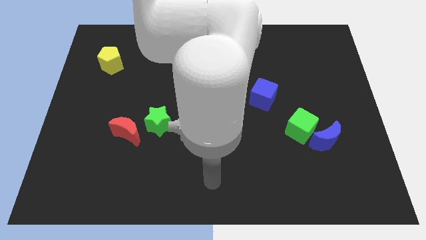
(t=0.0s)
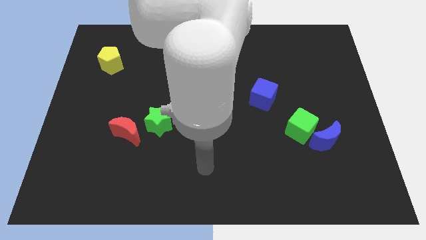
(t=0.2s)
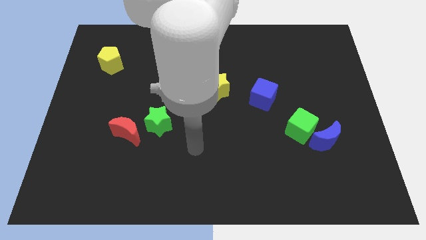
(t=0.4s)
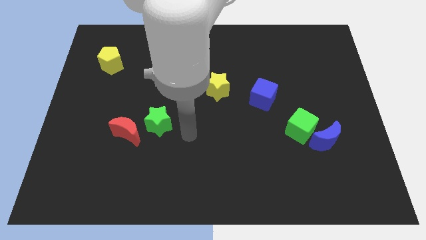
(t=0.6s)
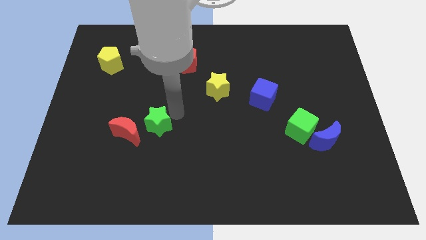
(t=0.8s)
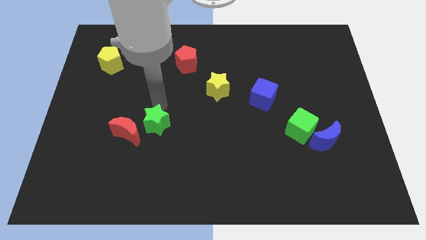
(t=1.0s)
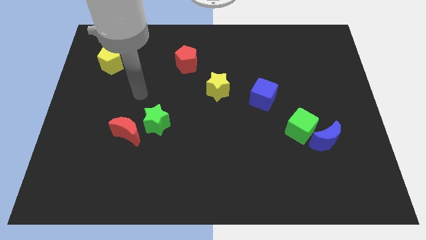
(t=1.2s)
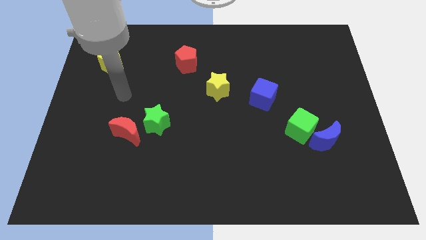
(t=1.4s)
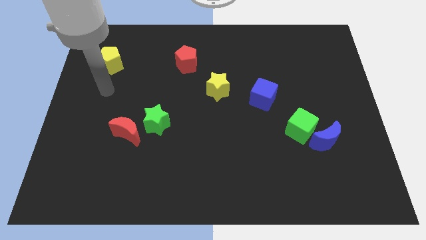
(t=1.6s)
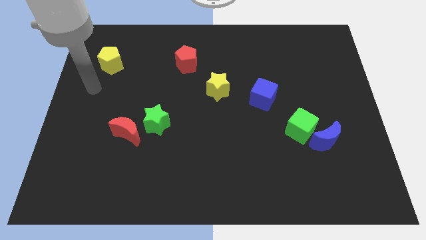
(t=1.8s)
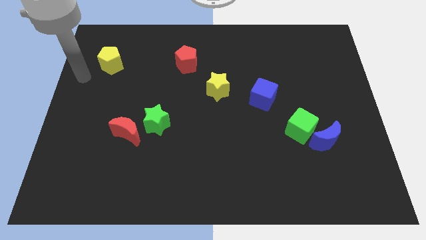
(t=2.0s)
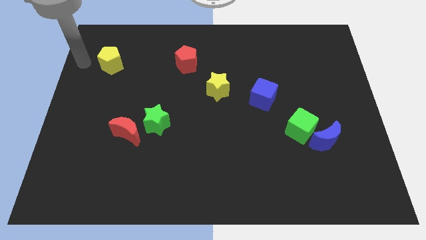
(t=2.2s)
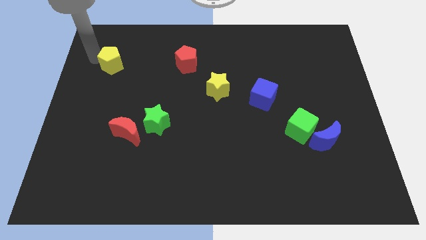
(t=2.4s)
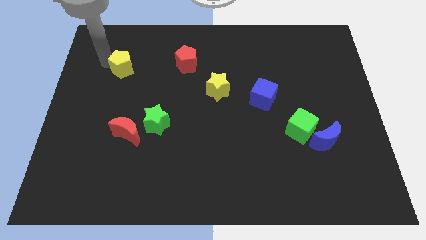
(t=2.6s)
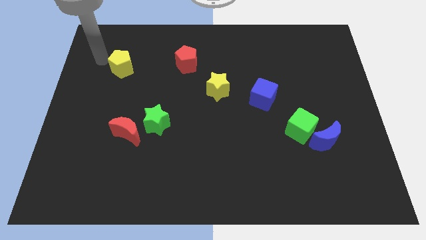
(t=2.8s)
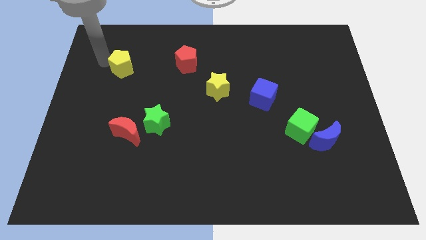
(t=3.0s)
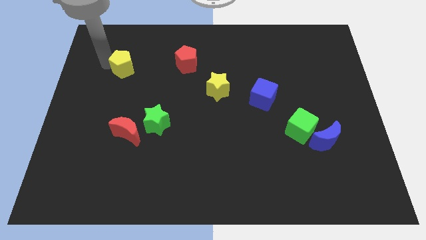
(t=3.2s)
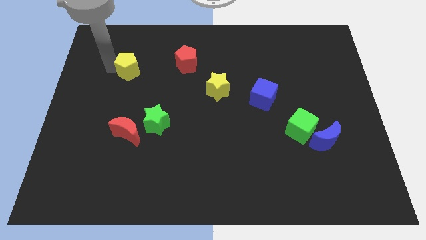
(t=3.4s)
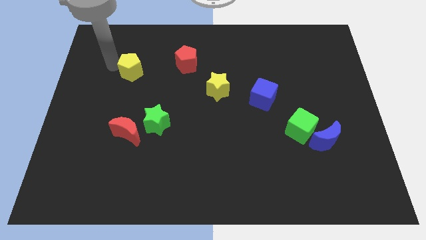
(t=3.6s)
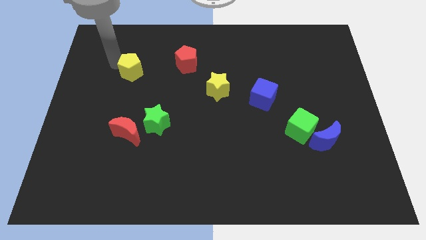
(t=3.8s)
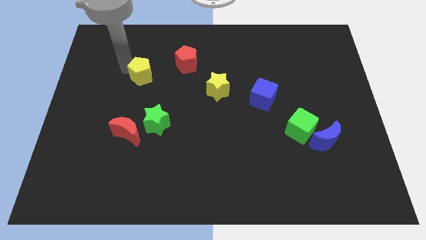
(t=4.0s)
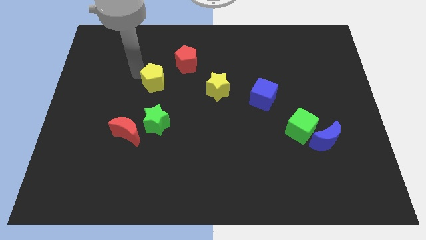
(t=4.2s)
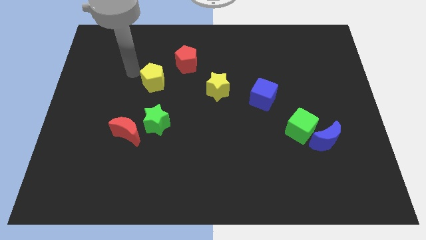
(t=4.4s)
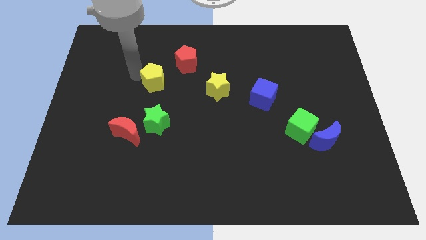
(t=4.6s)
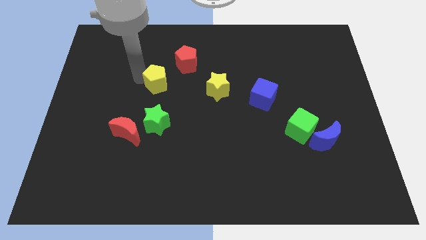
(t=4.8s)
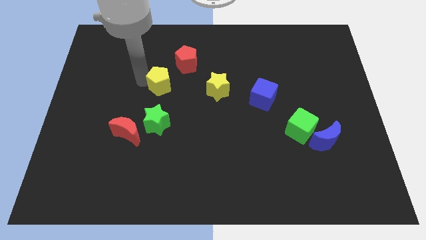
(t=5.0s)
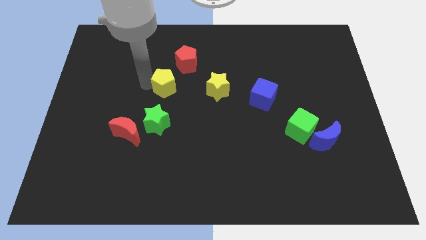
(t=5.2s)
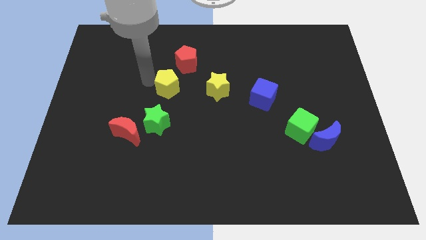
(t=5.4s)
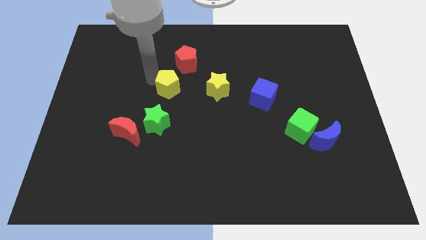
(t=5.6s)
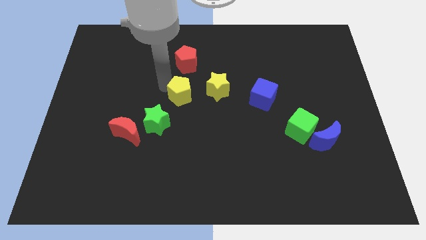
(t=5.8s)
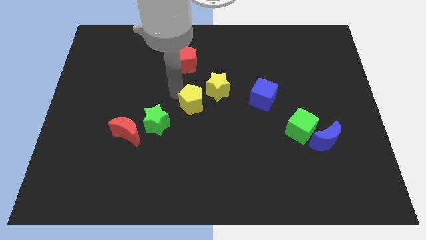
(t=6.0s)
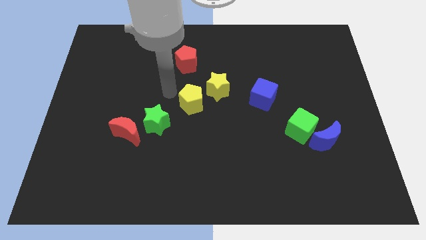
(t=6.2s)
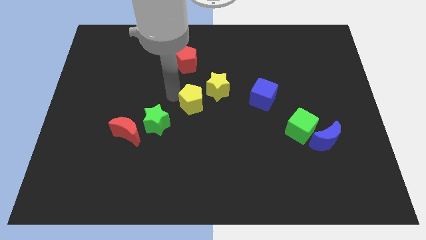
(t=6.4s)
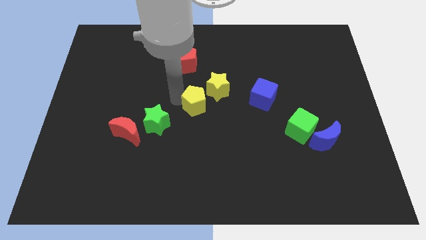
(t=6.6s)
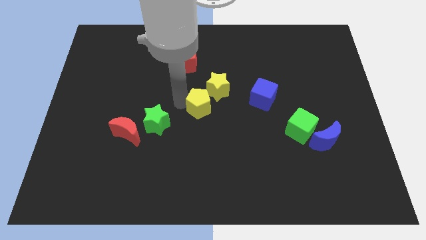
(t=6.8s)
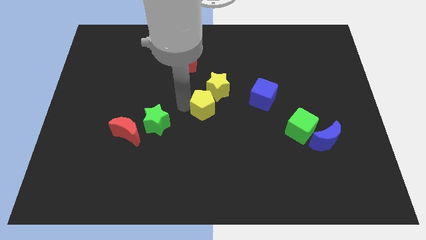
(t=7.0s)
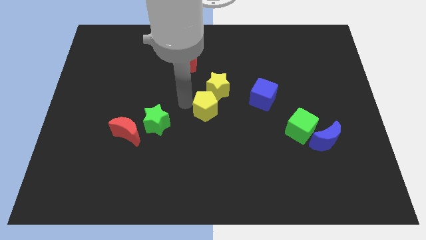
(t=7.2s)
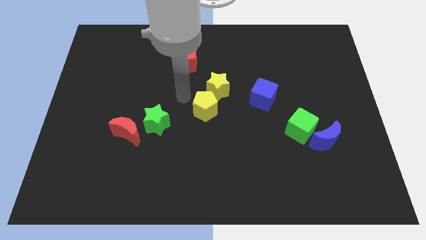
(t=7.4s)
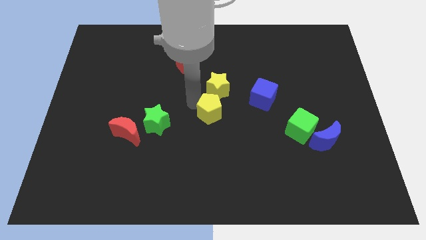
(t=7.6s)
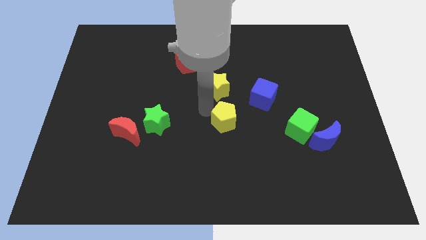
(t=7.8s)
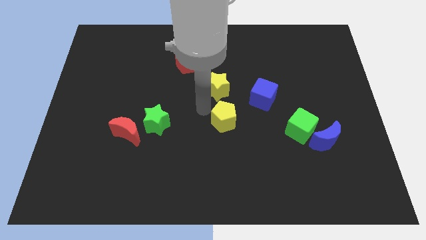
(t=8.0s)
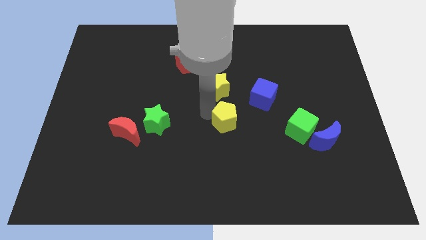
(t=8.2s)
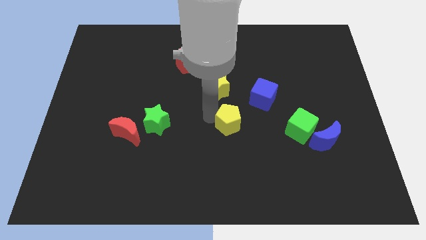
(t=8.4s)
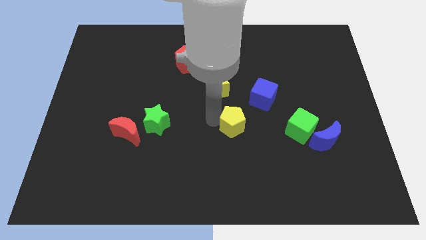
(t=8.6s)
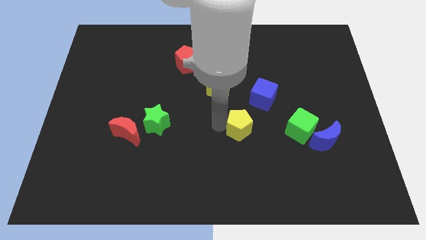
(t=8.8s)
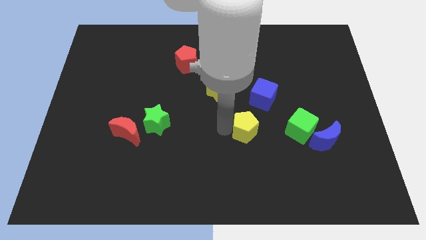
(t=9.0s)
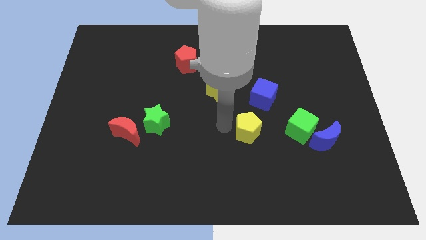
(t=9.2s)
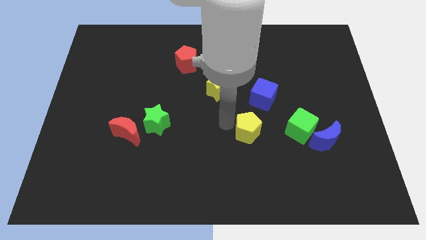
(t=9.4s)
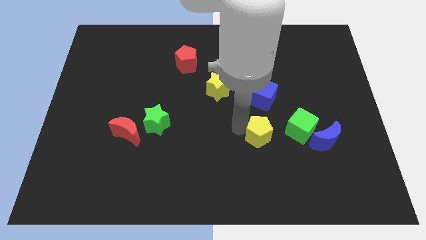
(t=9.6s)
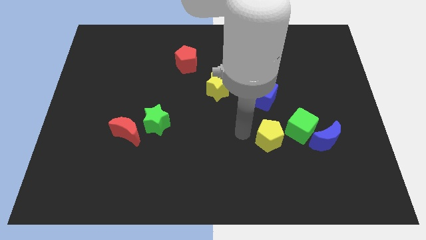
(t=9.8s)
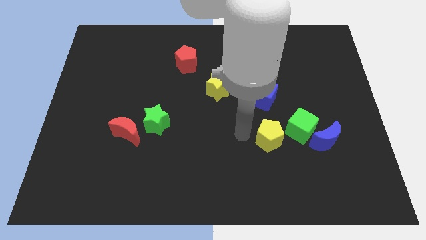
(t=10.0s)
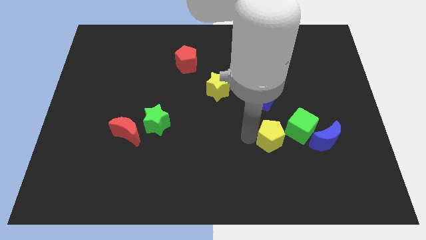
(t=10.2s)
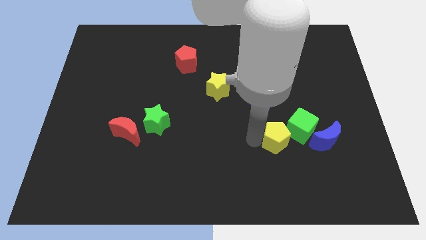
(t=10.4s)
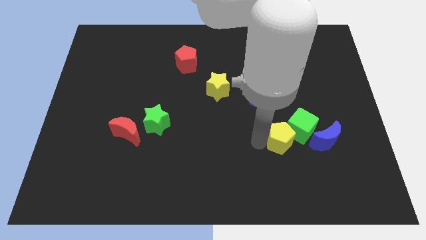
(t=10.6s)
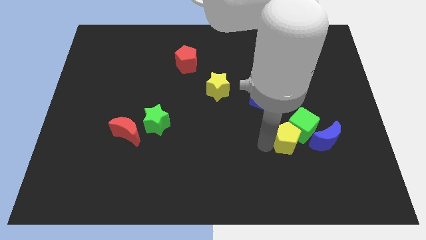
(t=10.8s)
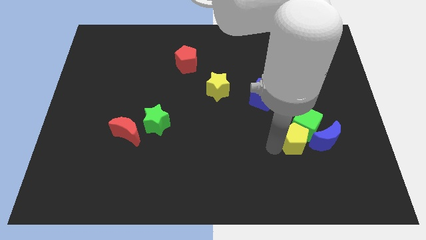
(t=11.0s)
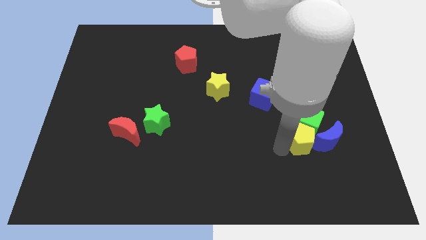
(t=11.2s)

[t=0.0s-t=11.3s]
slide the yellow pentagon towards the blue moon

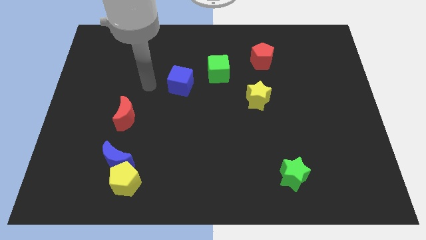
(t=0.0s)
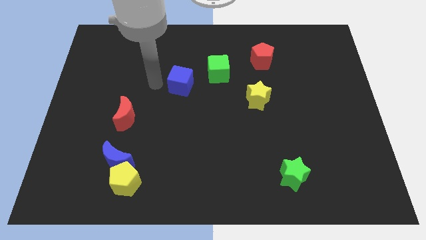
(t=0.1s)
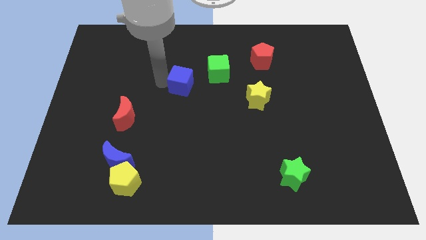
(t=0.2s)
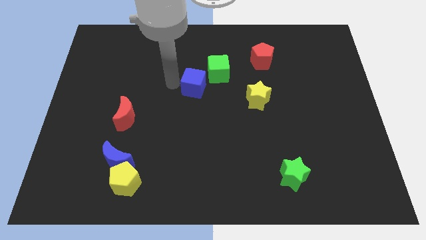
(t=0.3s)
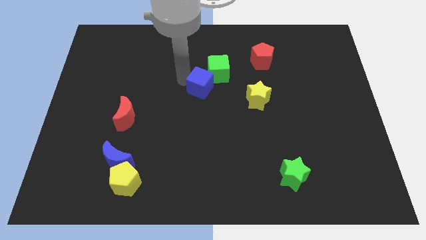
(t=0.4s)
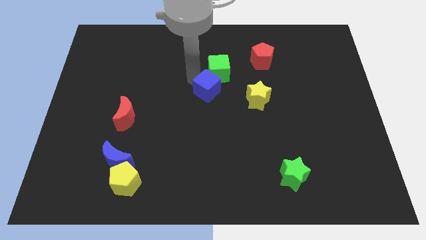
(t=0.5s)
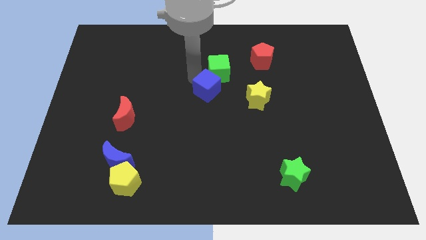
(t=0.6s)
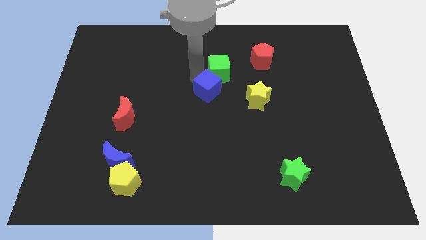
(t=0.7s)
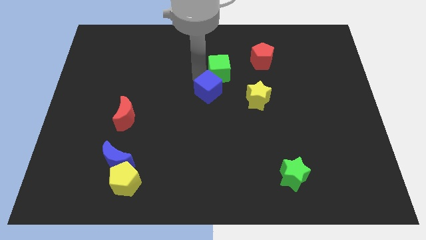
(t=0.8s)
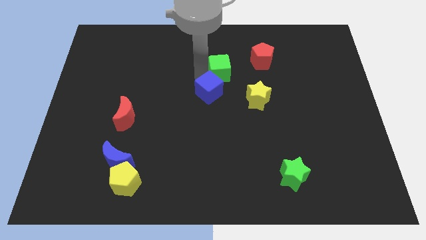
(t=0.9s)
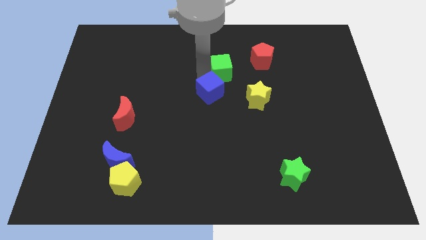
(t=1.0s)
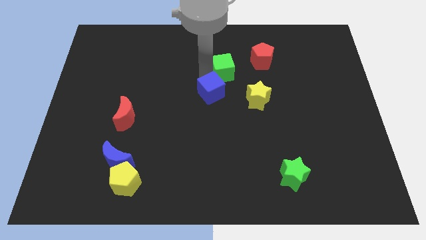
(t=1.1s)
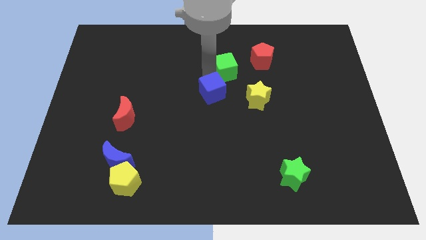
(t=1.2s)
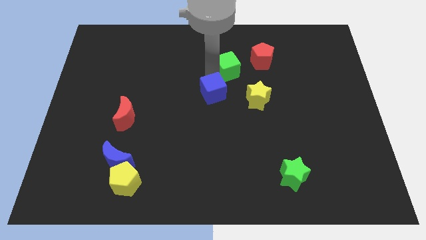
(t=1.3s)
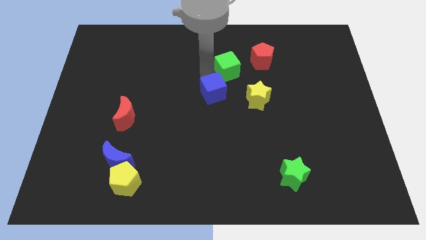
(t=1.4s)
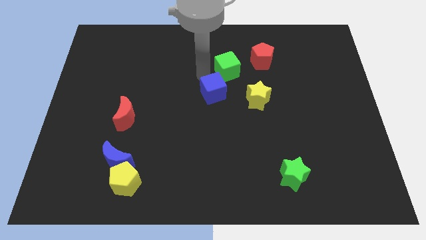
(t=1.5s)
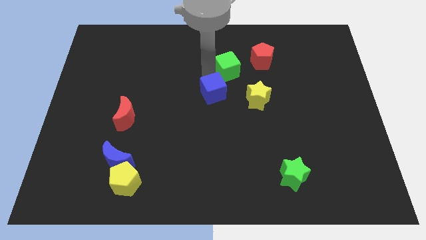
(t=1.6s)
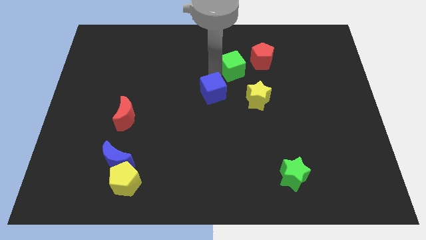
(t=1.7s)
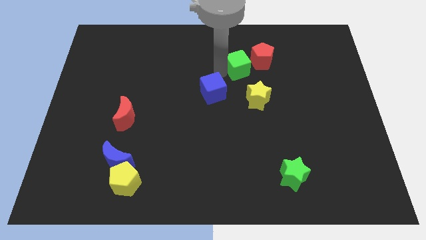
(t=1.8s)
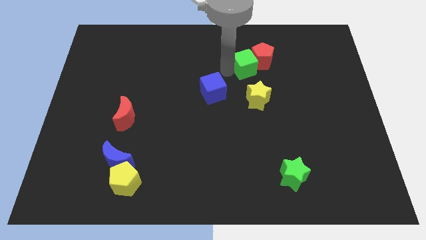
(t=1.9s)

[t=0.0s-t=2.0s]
put the green cube close to the red pentagon
